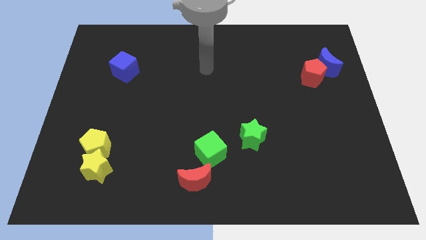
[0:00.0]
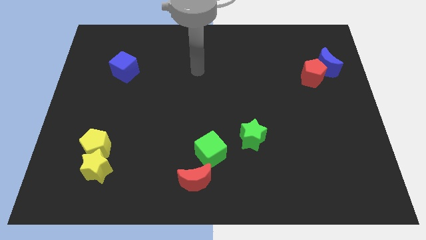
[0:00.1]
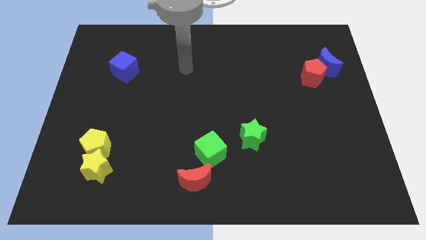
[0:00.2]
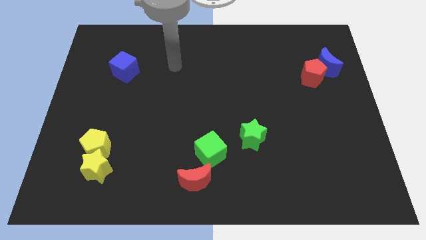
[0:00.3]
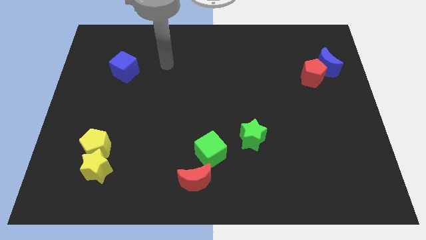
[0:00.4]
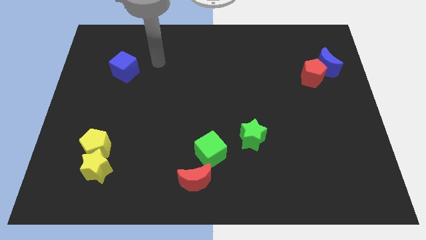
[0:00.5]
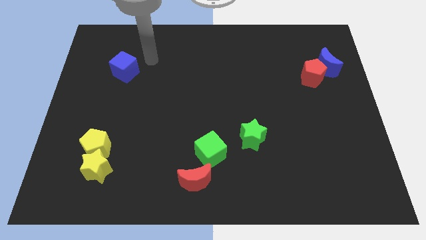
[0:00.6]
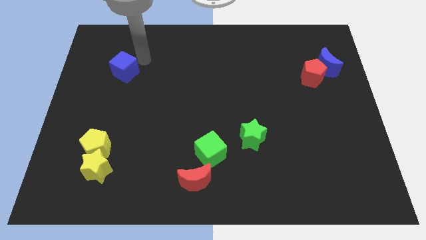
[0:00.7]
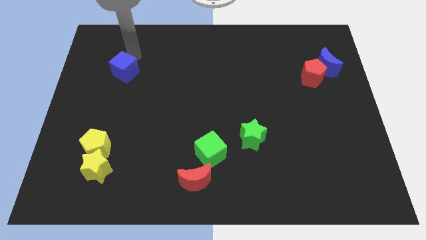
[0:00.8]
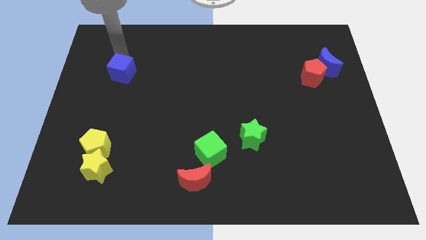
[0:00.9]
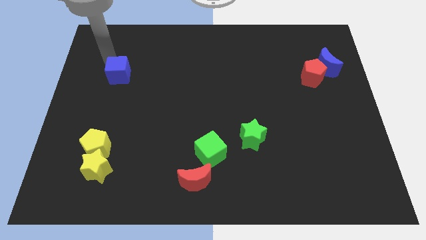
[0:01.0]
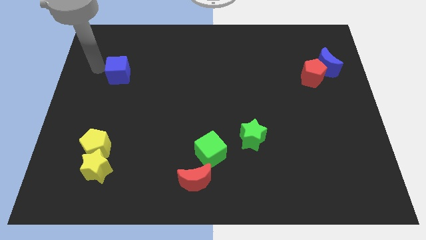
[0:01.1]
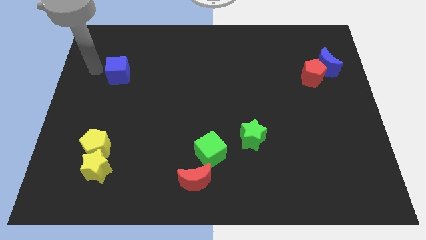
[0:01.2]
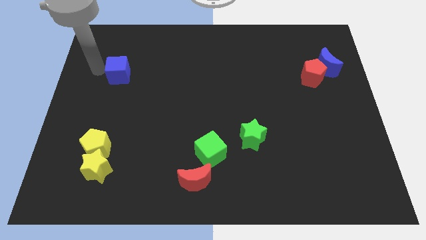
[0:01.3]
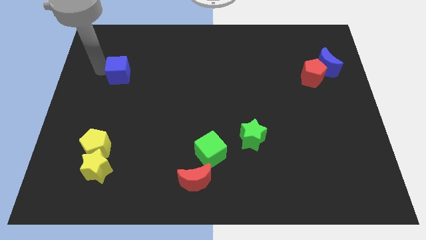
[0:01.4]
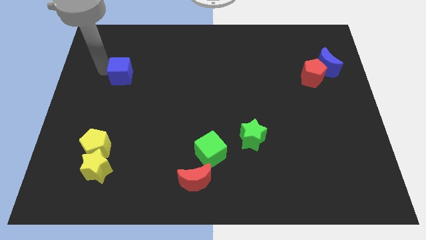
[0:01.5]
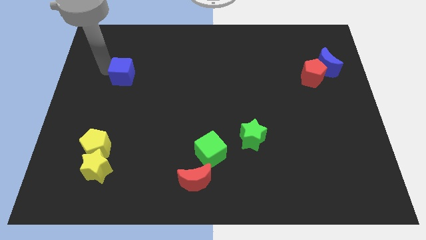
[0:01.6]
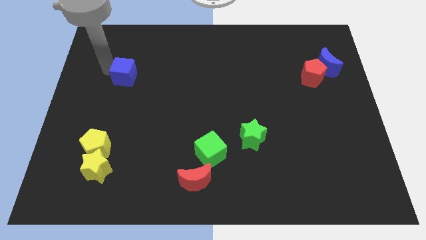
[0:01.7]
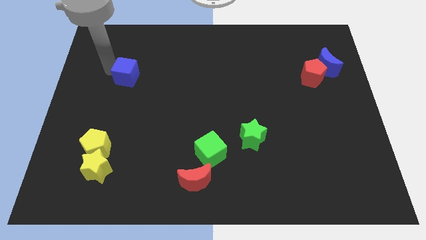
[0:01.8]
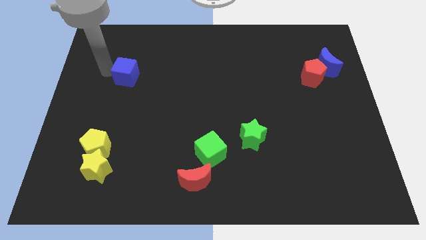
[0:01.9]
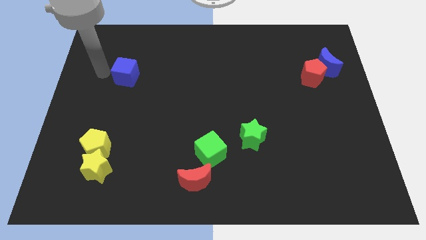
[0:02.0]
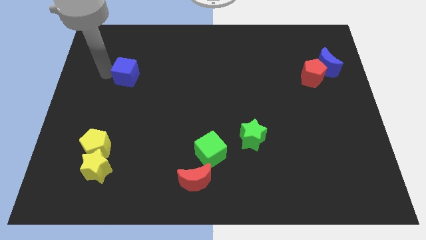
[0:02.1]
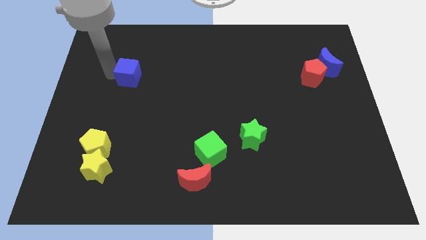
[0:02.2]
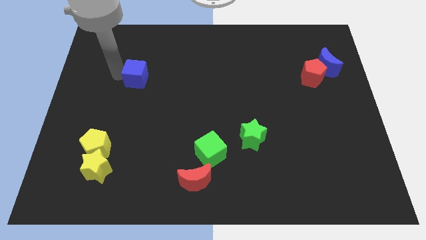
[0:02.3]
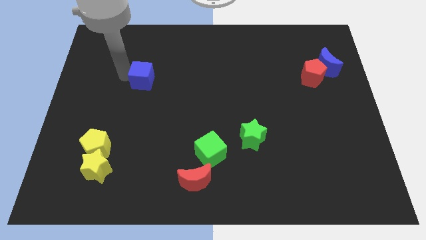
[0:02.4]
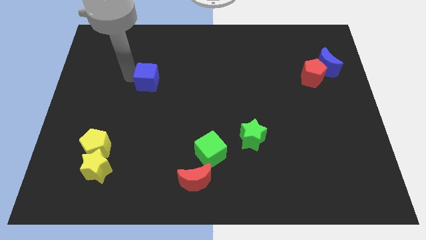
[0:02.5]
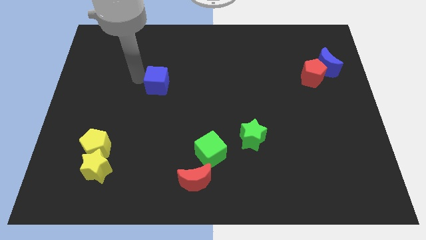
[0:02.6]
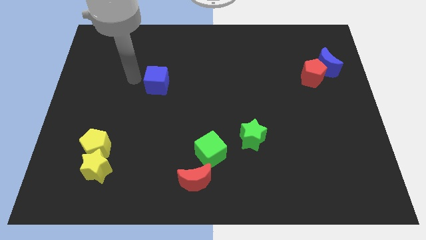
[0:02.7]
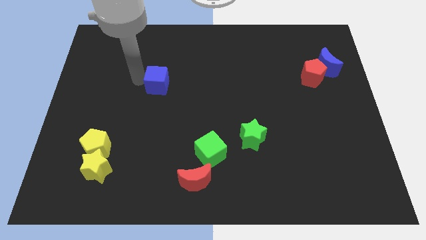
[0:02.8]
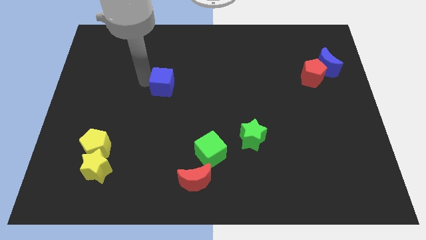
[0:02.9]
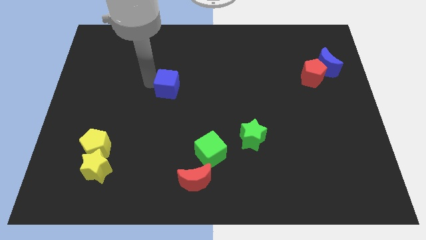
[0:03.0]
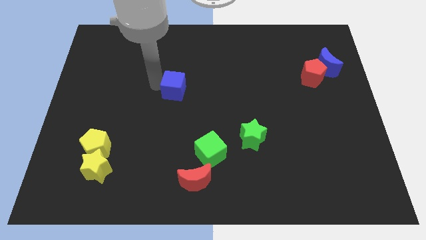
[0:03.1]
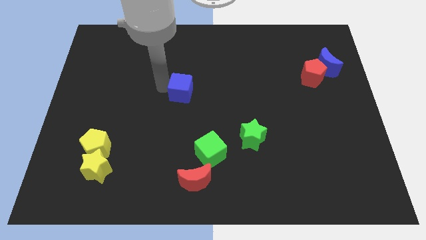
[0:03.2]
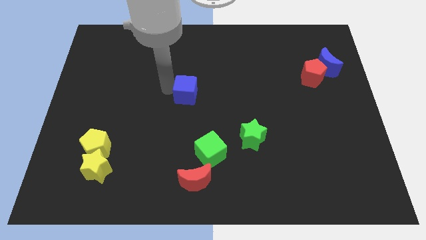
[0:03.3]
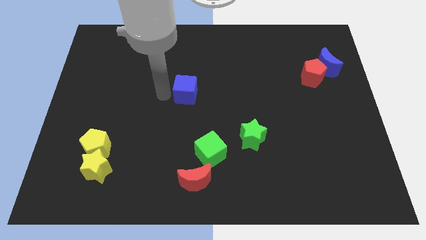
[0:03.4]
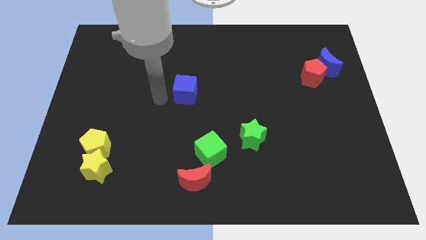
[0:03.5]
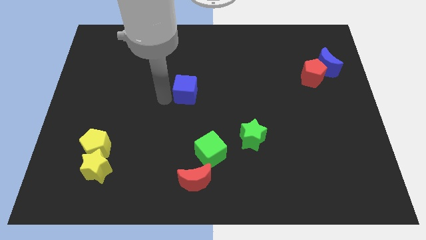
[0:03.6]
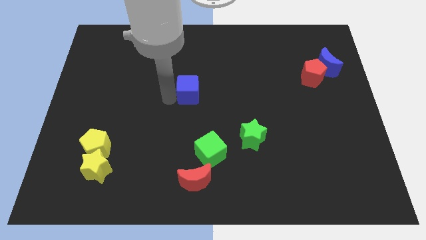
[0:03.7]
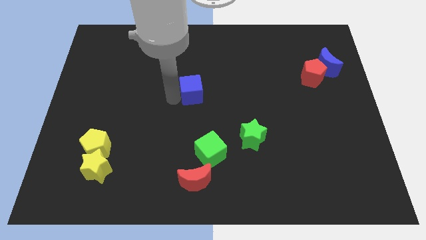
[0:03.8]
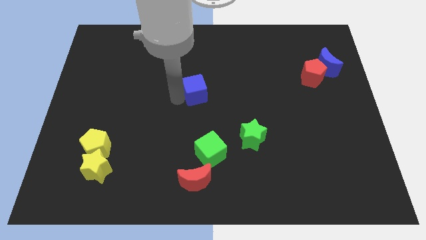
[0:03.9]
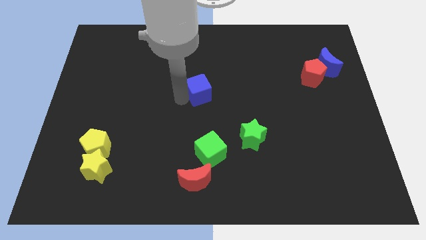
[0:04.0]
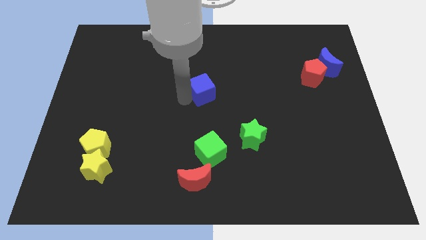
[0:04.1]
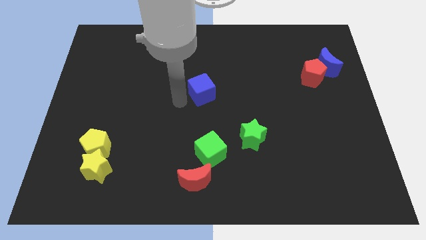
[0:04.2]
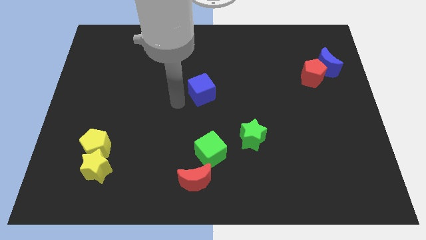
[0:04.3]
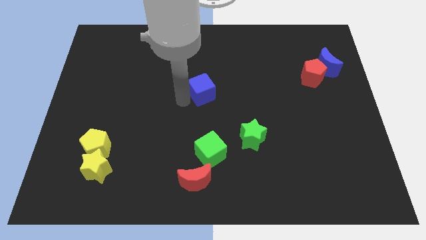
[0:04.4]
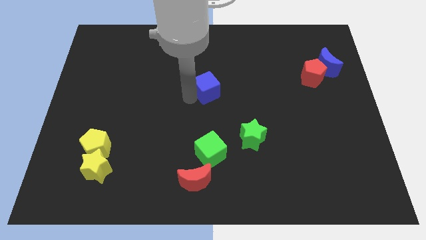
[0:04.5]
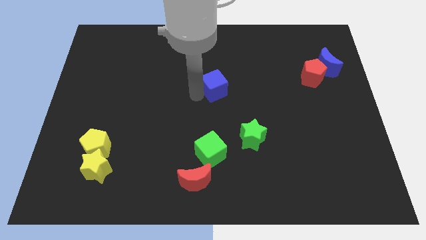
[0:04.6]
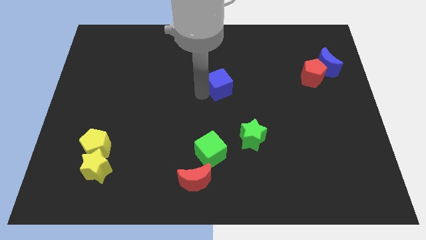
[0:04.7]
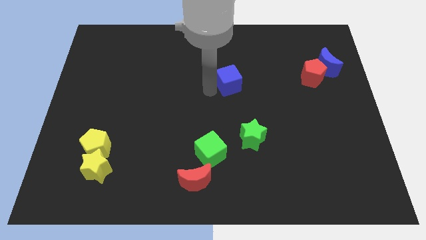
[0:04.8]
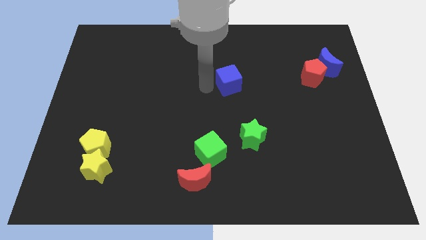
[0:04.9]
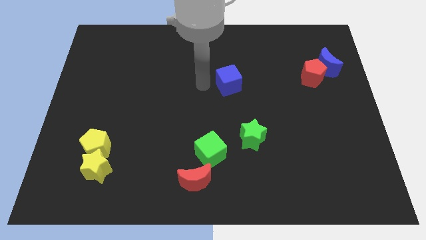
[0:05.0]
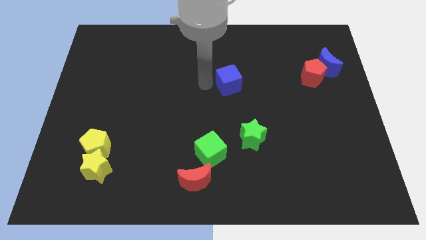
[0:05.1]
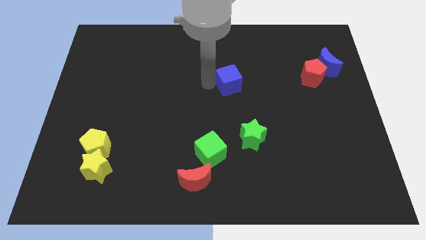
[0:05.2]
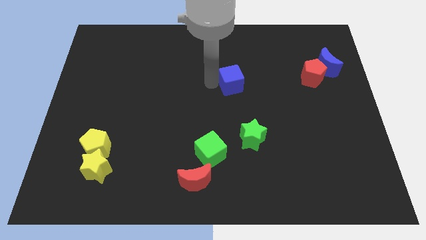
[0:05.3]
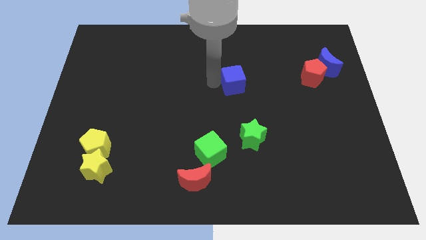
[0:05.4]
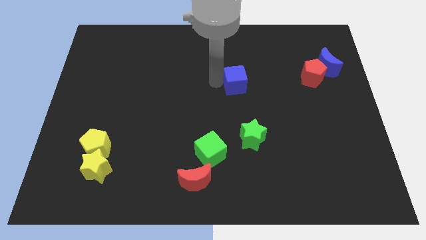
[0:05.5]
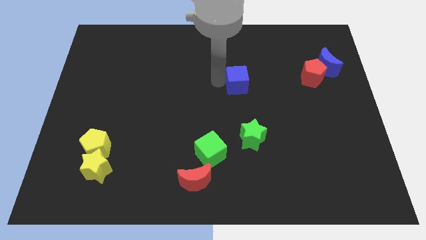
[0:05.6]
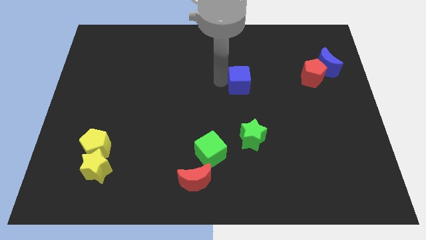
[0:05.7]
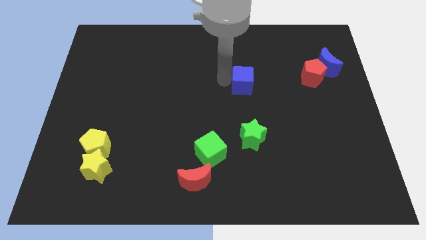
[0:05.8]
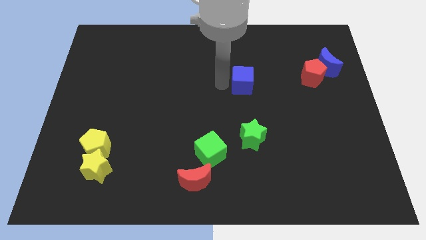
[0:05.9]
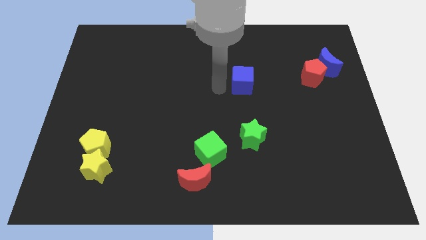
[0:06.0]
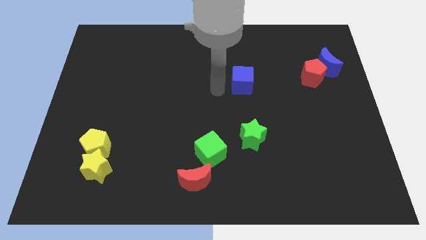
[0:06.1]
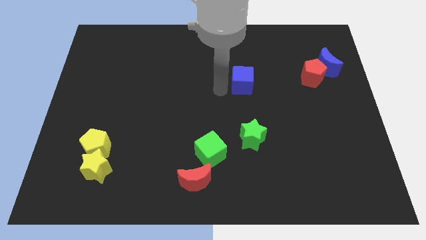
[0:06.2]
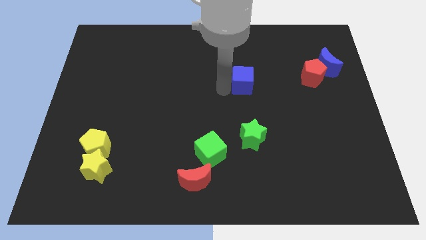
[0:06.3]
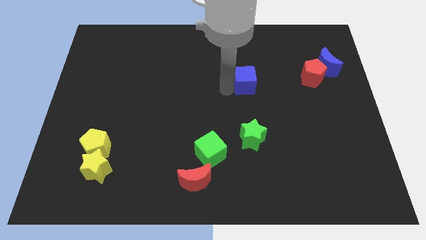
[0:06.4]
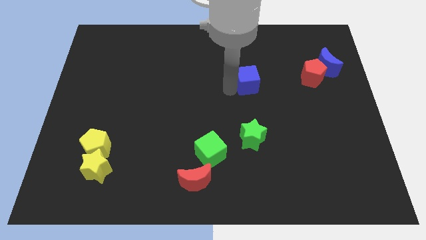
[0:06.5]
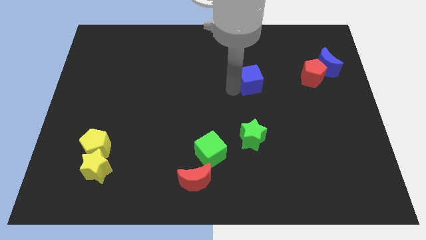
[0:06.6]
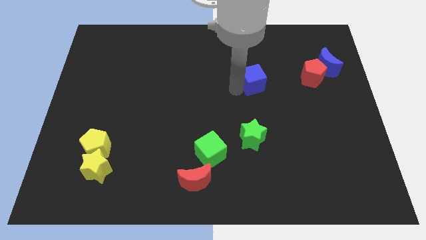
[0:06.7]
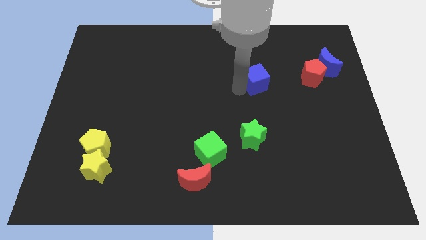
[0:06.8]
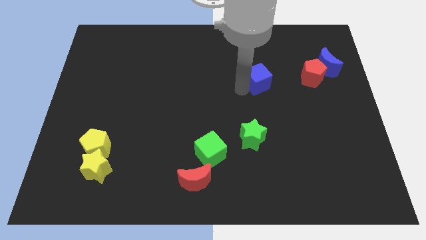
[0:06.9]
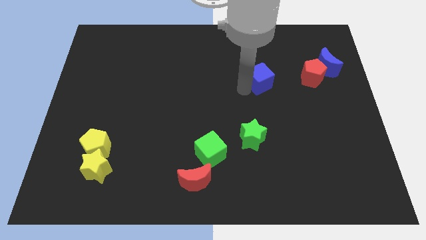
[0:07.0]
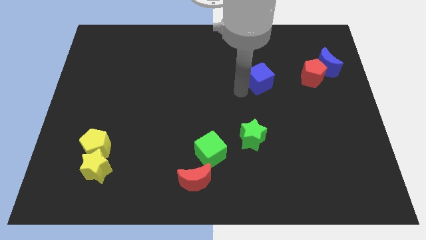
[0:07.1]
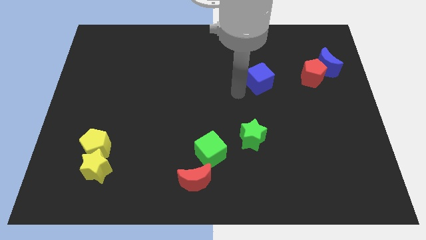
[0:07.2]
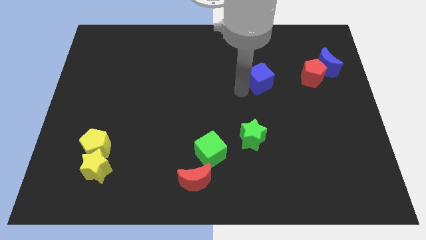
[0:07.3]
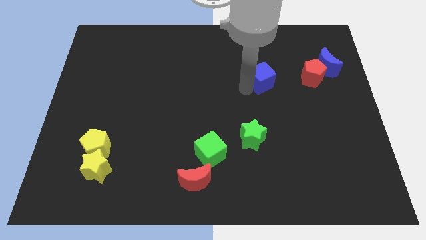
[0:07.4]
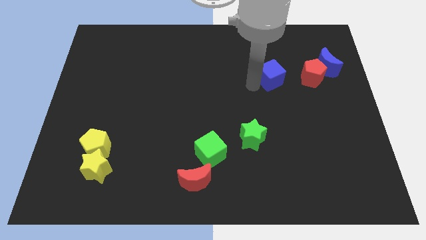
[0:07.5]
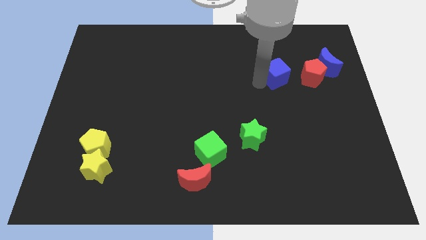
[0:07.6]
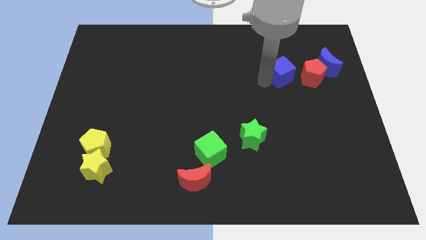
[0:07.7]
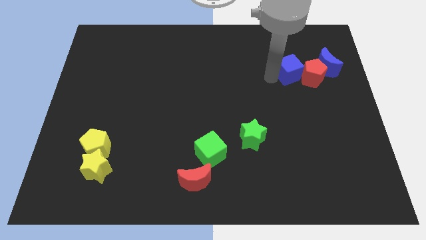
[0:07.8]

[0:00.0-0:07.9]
slide the blue cube next to the red pentagon
